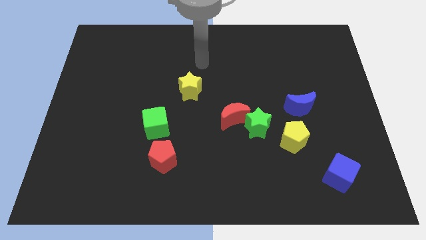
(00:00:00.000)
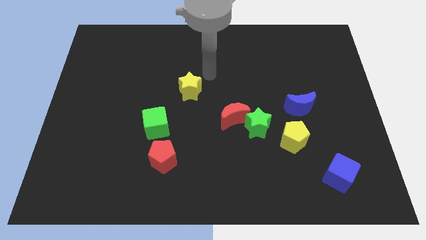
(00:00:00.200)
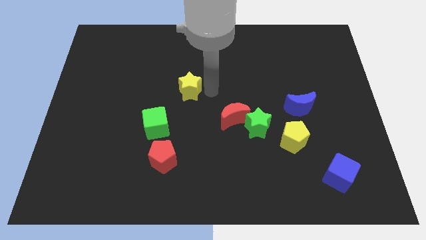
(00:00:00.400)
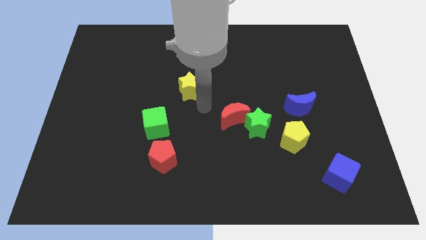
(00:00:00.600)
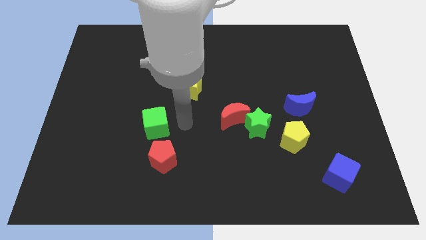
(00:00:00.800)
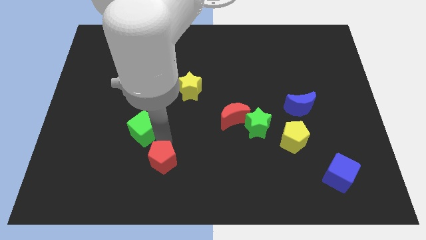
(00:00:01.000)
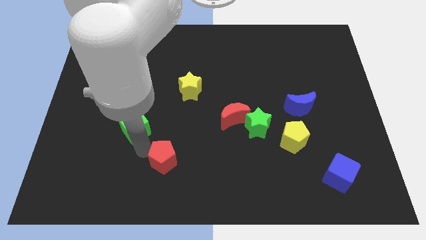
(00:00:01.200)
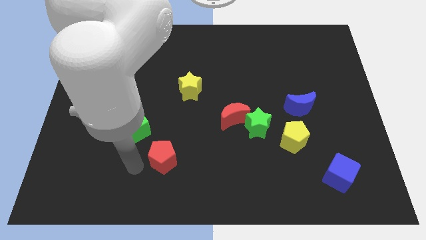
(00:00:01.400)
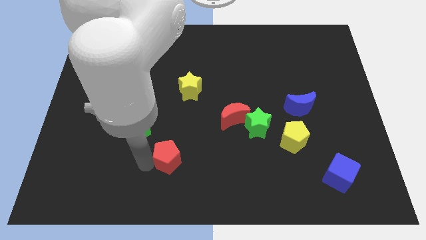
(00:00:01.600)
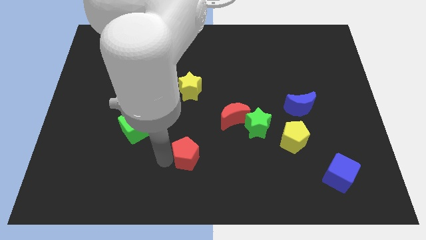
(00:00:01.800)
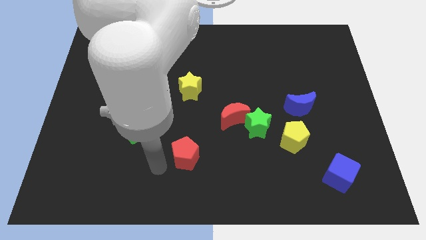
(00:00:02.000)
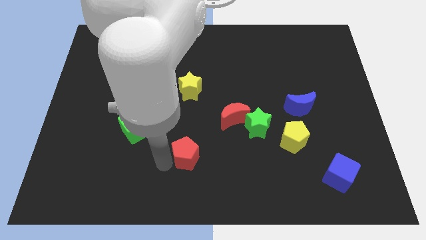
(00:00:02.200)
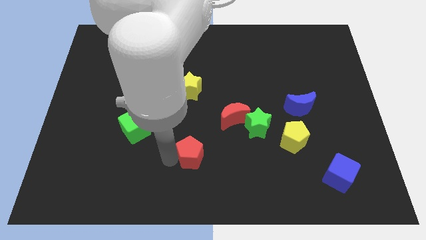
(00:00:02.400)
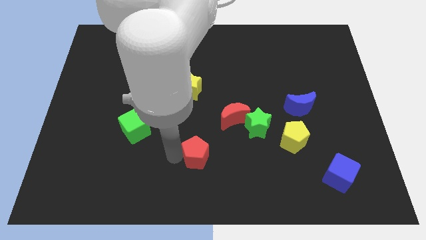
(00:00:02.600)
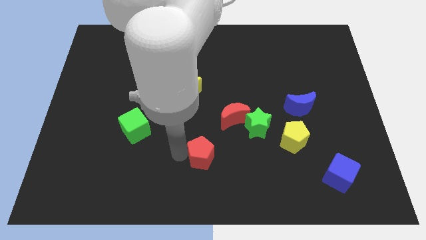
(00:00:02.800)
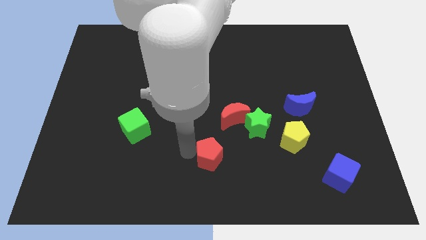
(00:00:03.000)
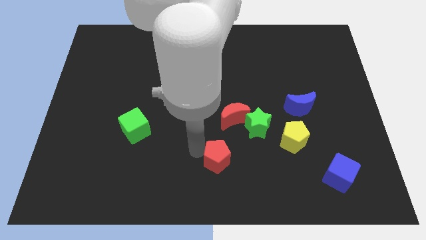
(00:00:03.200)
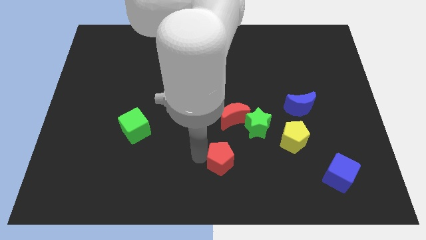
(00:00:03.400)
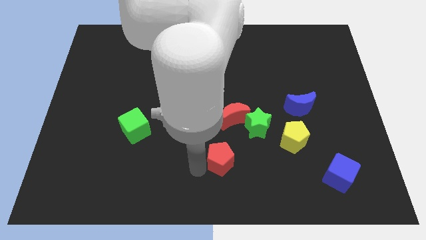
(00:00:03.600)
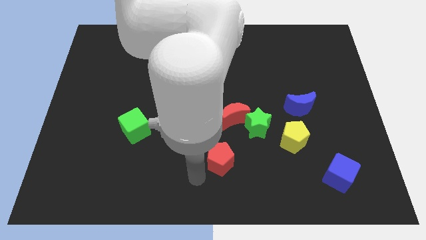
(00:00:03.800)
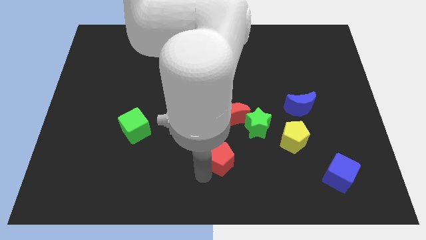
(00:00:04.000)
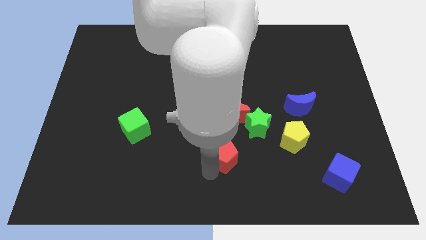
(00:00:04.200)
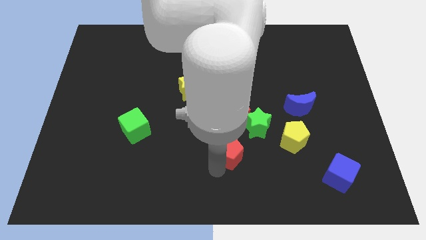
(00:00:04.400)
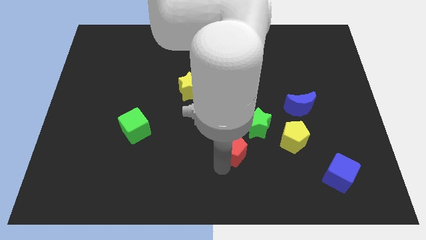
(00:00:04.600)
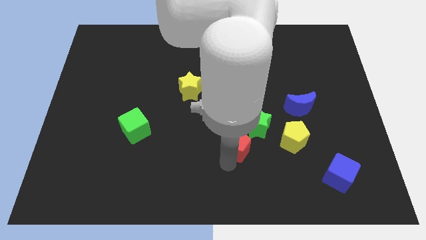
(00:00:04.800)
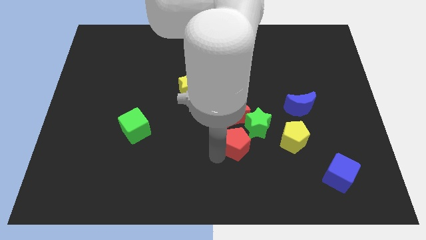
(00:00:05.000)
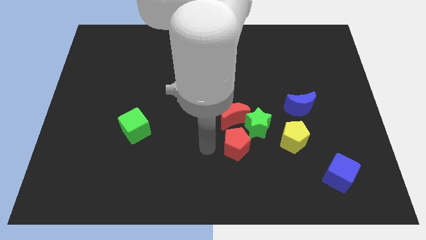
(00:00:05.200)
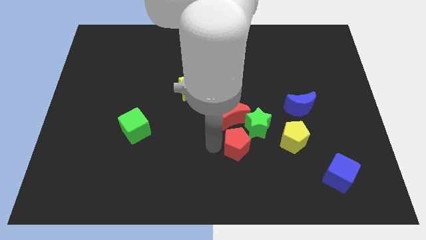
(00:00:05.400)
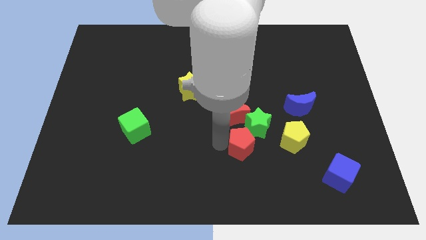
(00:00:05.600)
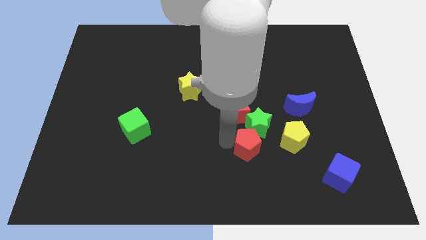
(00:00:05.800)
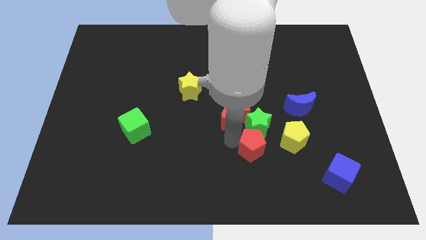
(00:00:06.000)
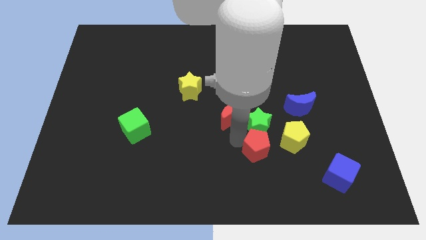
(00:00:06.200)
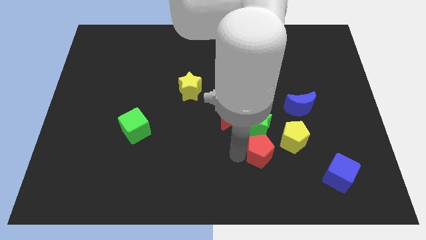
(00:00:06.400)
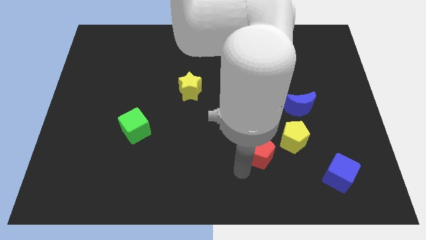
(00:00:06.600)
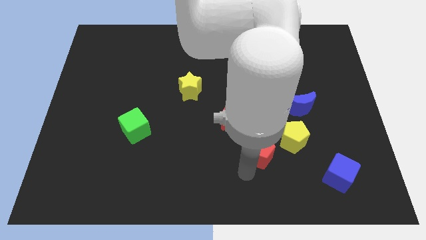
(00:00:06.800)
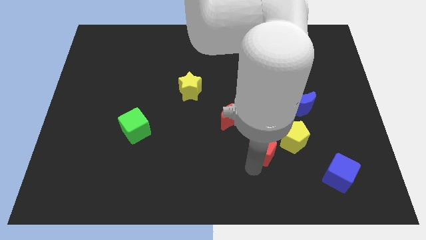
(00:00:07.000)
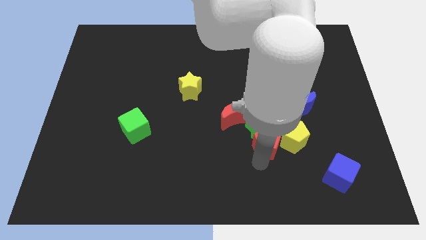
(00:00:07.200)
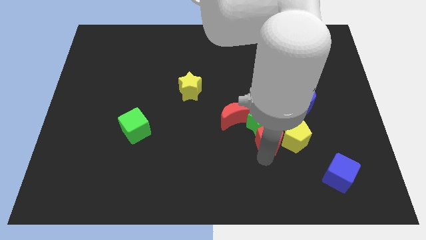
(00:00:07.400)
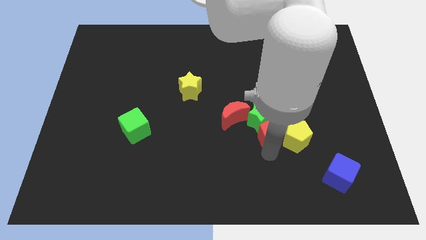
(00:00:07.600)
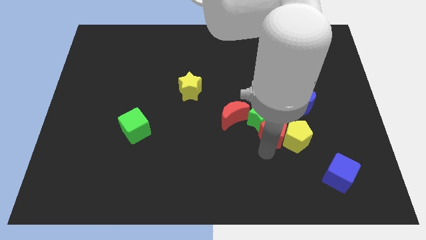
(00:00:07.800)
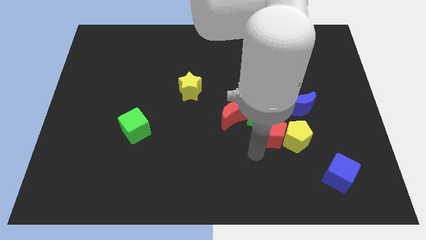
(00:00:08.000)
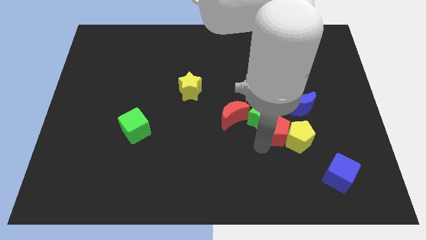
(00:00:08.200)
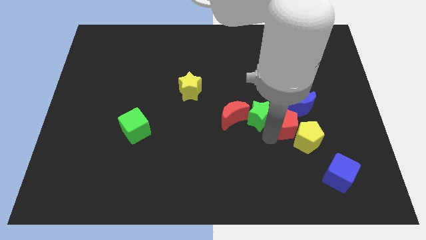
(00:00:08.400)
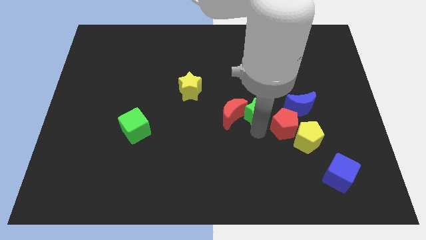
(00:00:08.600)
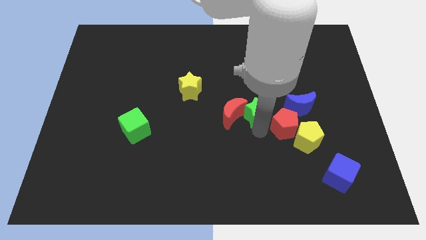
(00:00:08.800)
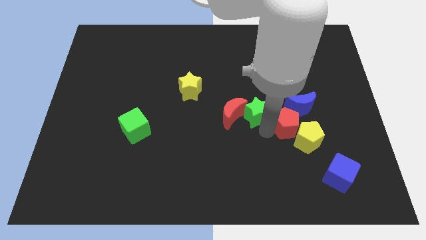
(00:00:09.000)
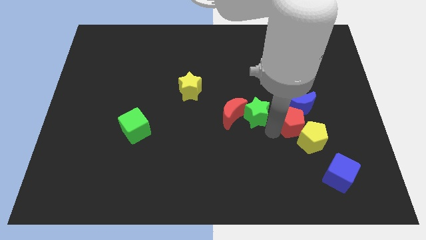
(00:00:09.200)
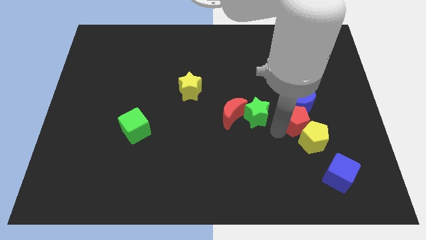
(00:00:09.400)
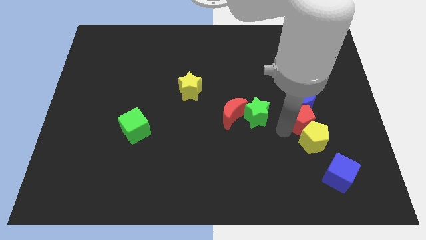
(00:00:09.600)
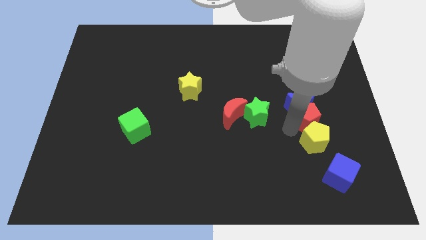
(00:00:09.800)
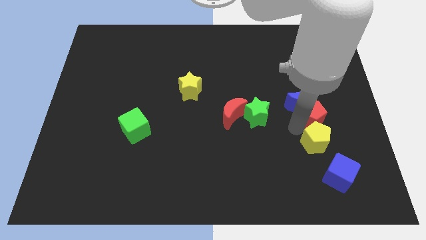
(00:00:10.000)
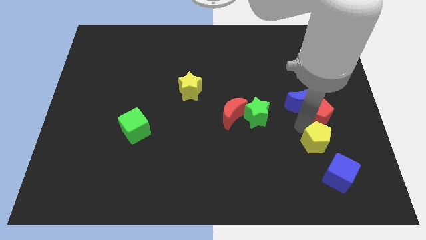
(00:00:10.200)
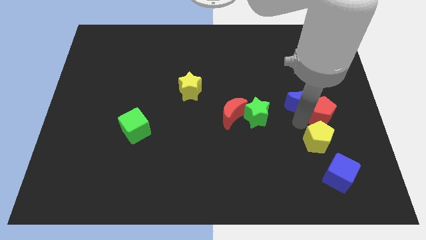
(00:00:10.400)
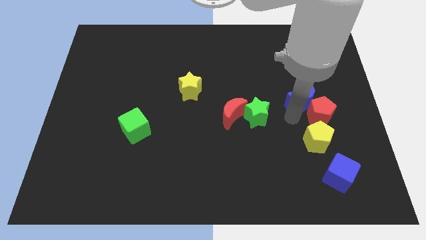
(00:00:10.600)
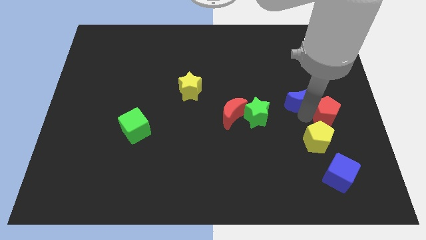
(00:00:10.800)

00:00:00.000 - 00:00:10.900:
slide the red pentagon to the center right
